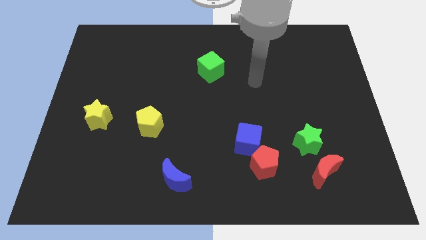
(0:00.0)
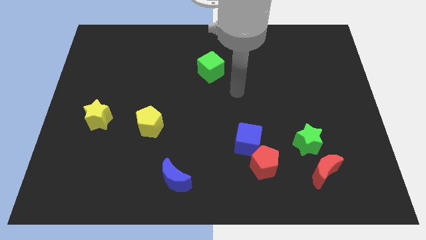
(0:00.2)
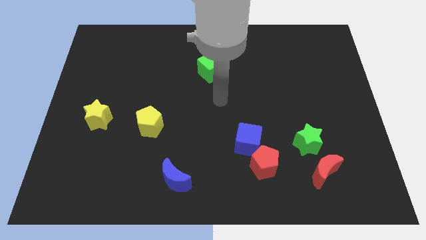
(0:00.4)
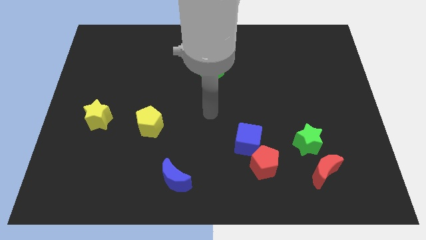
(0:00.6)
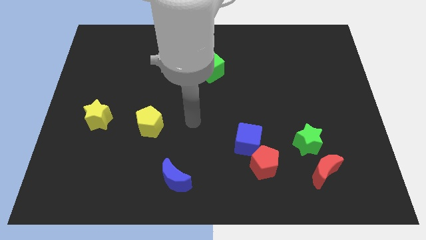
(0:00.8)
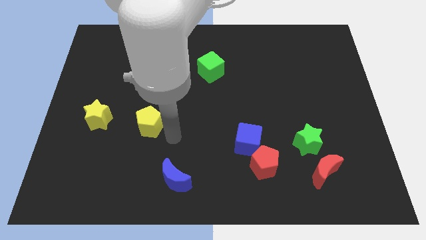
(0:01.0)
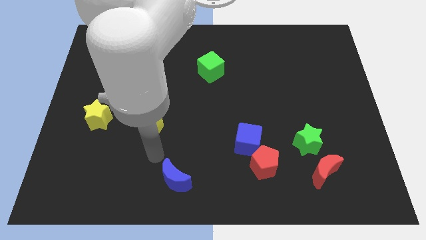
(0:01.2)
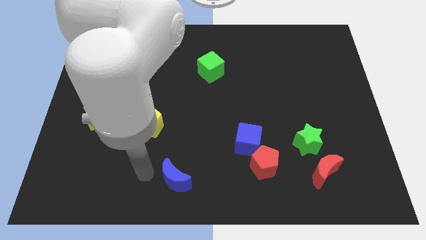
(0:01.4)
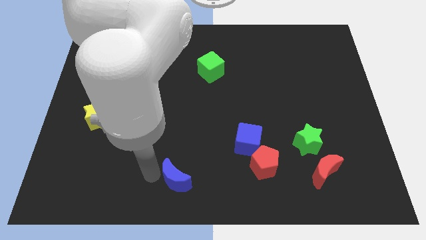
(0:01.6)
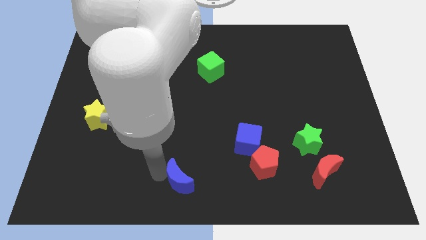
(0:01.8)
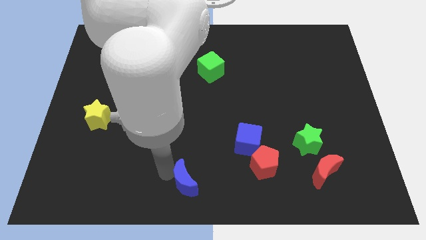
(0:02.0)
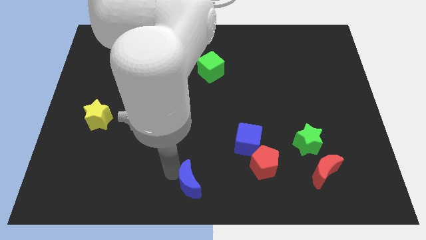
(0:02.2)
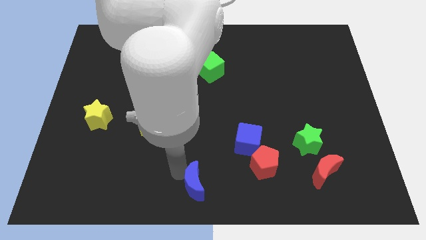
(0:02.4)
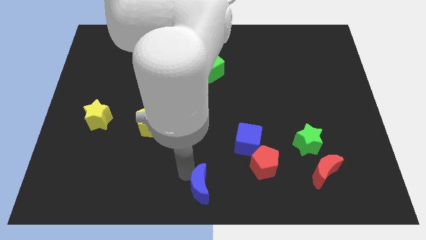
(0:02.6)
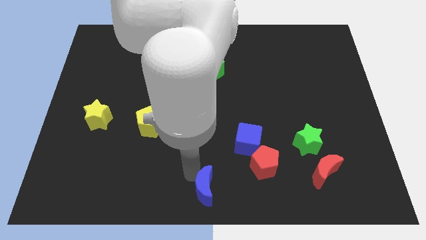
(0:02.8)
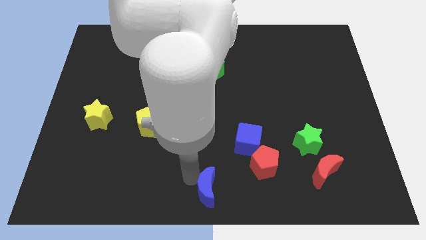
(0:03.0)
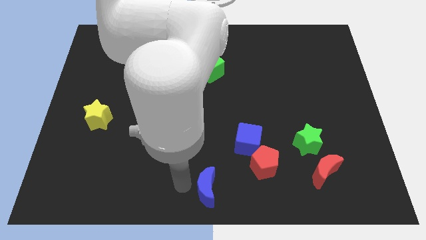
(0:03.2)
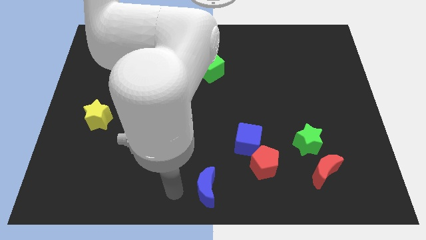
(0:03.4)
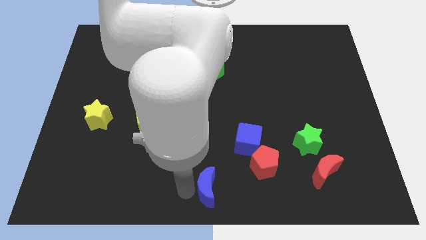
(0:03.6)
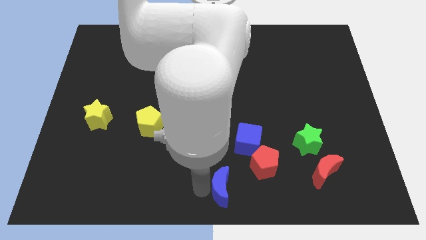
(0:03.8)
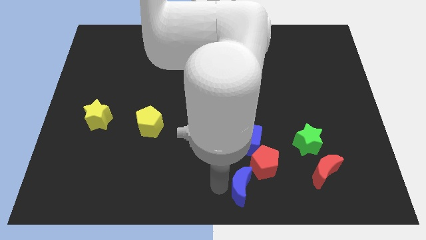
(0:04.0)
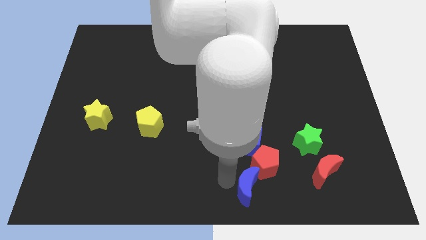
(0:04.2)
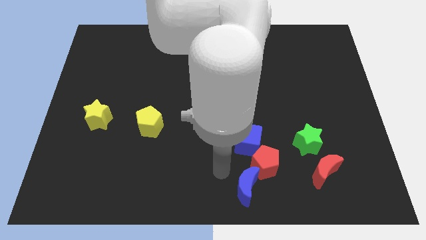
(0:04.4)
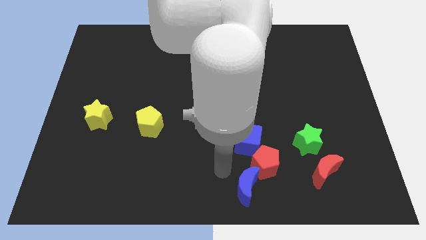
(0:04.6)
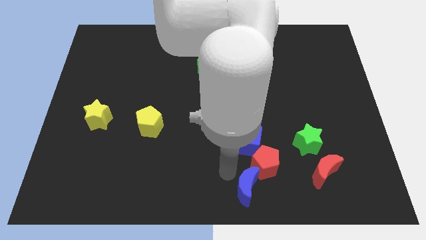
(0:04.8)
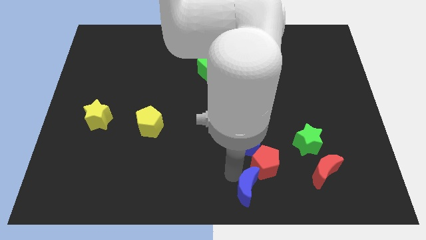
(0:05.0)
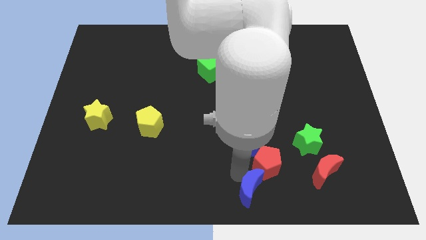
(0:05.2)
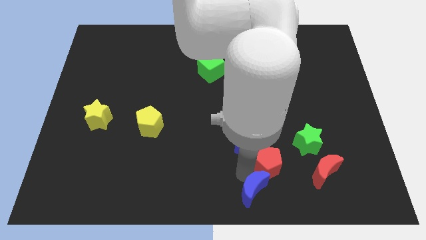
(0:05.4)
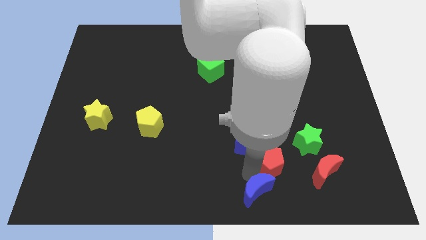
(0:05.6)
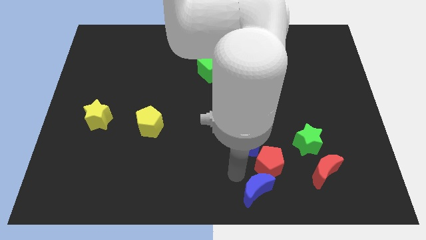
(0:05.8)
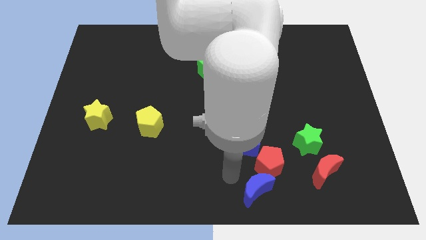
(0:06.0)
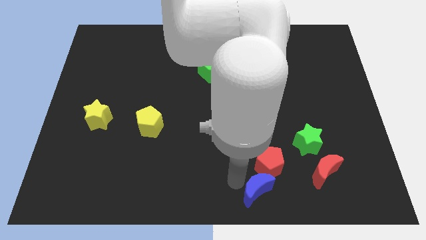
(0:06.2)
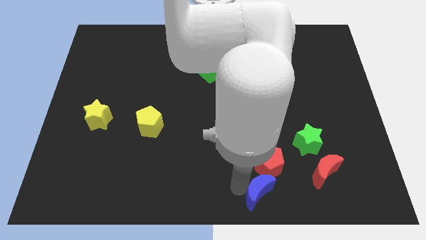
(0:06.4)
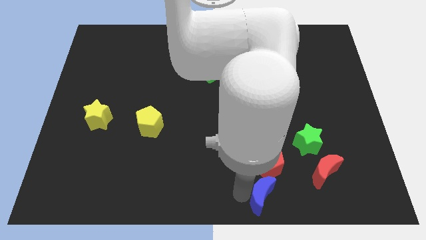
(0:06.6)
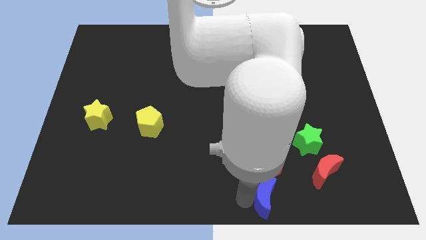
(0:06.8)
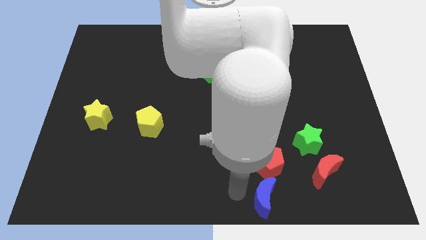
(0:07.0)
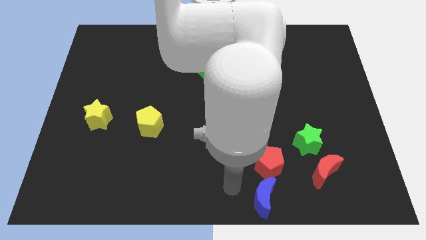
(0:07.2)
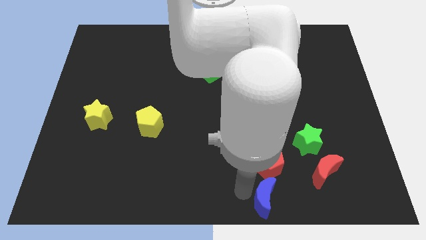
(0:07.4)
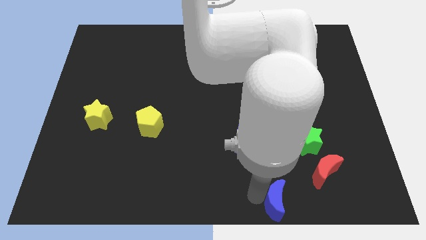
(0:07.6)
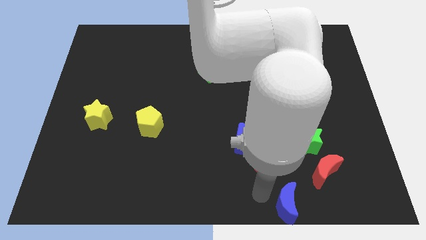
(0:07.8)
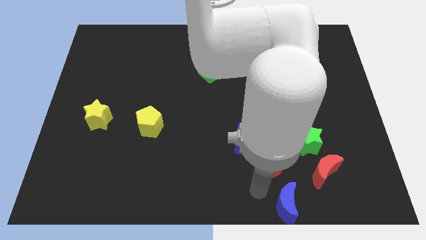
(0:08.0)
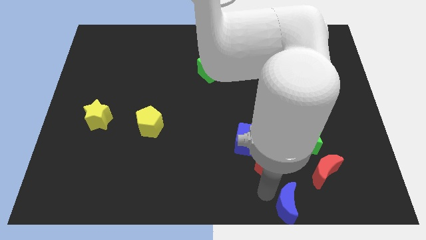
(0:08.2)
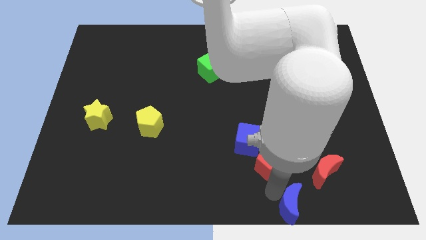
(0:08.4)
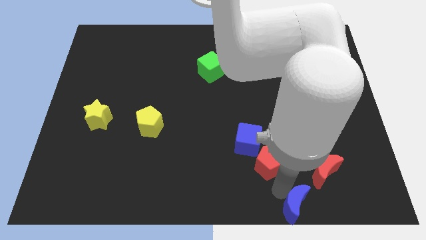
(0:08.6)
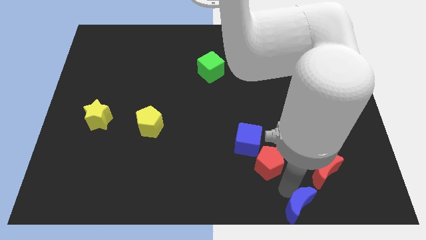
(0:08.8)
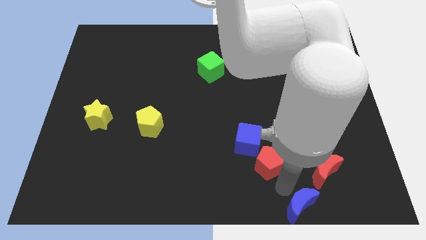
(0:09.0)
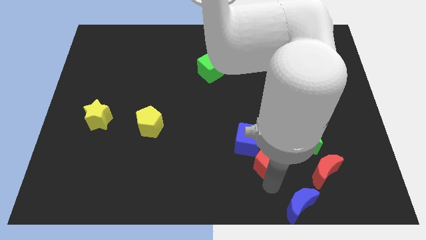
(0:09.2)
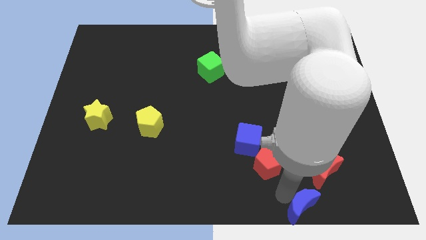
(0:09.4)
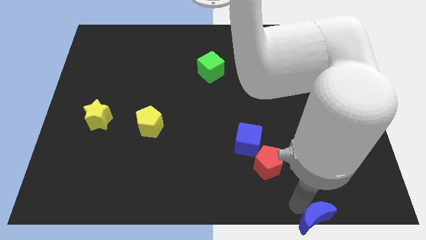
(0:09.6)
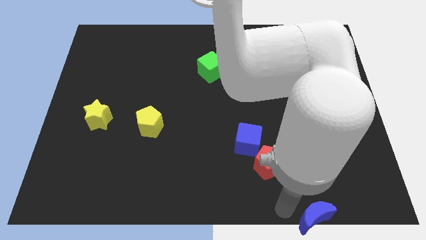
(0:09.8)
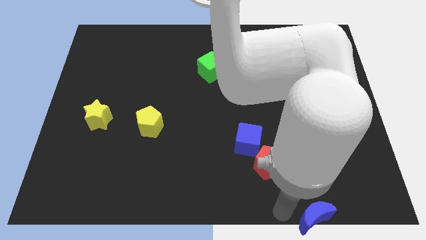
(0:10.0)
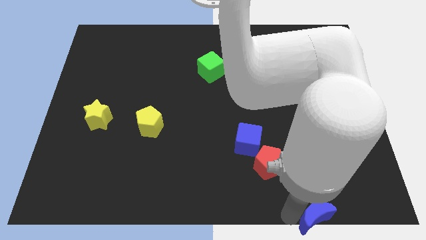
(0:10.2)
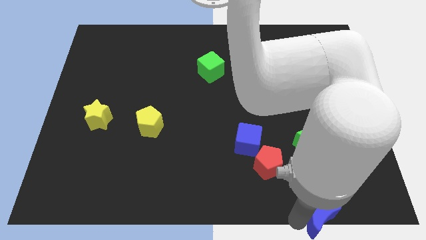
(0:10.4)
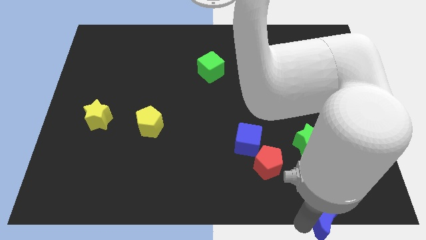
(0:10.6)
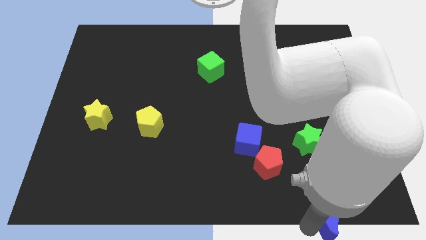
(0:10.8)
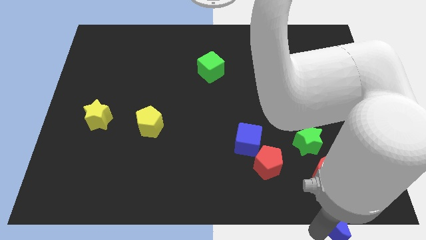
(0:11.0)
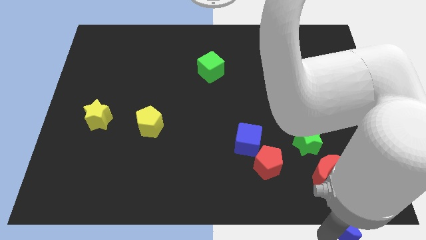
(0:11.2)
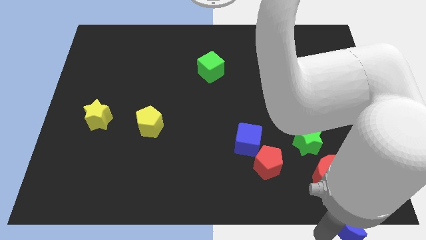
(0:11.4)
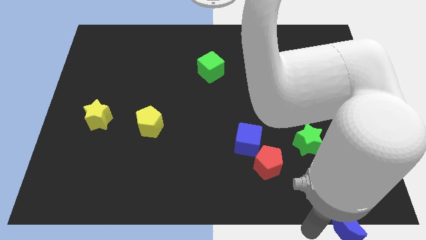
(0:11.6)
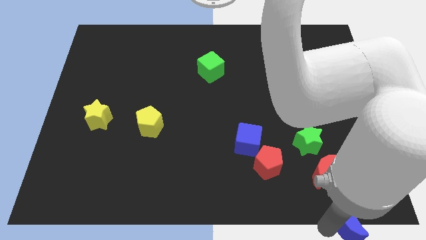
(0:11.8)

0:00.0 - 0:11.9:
put the blue moon to the lower right corner

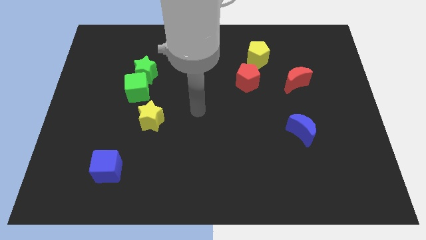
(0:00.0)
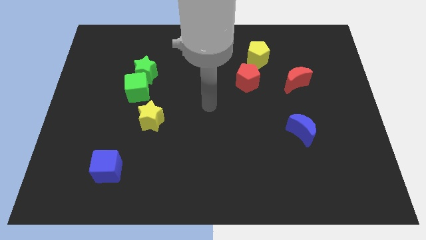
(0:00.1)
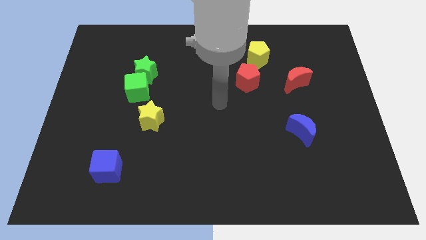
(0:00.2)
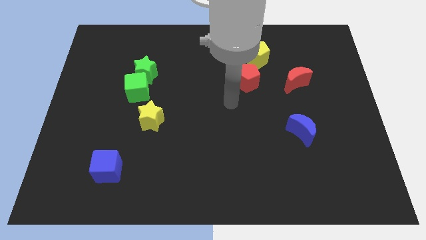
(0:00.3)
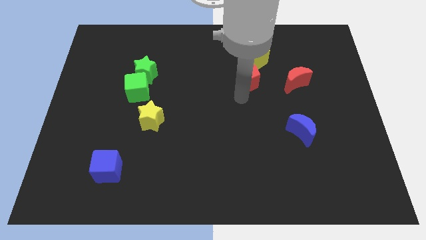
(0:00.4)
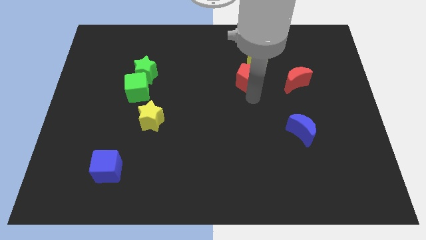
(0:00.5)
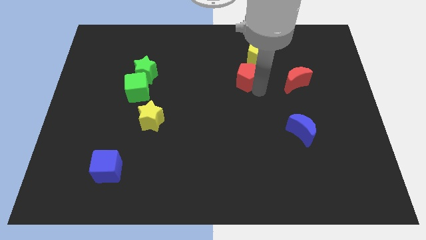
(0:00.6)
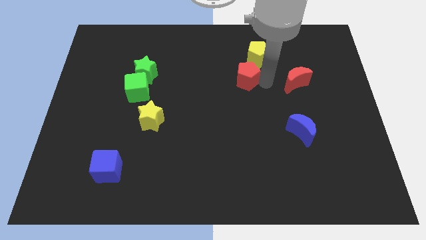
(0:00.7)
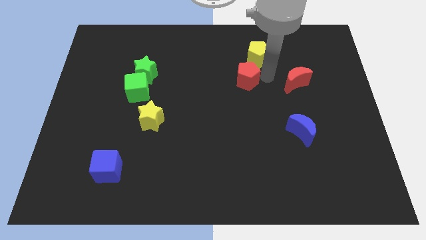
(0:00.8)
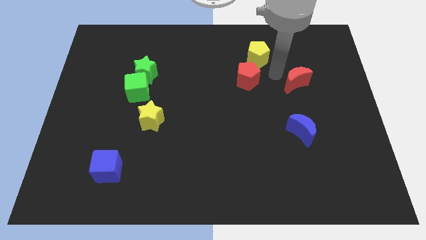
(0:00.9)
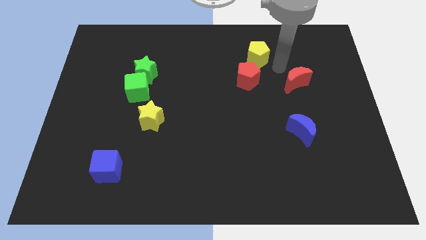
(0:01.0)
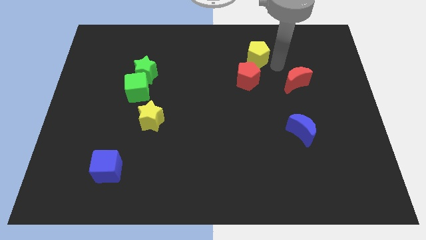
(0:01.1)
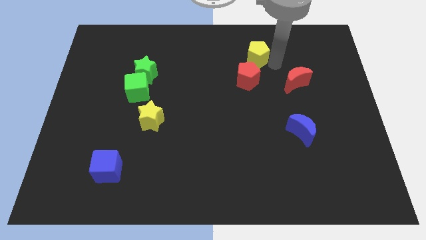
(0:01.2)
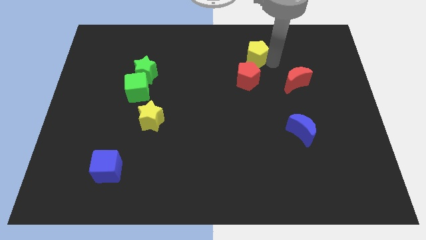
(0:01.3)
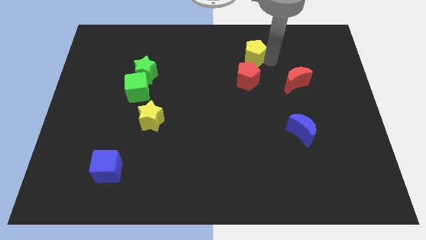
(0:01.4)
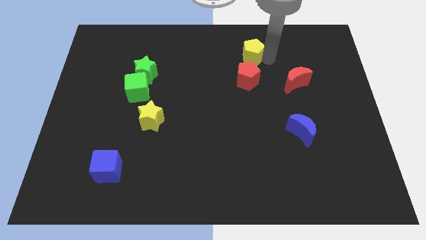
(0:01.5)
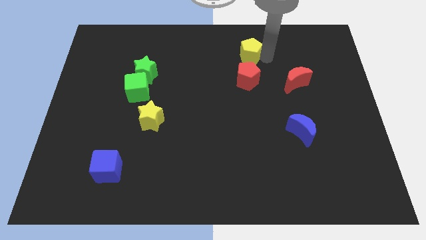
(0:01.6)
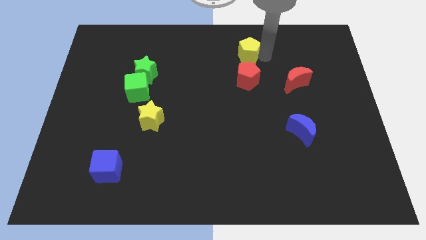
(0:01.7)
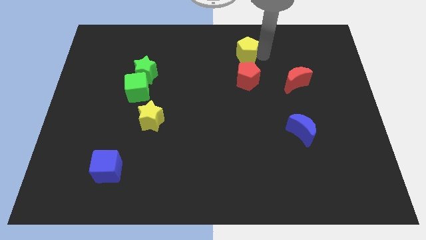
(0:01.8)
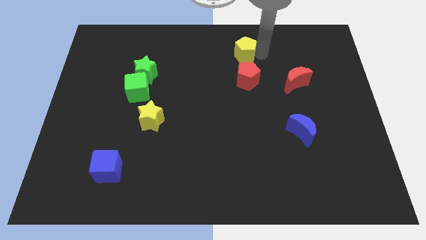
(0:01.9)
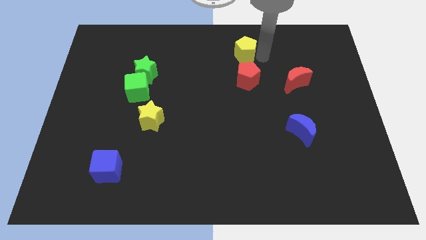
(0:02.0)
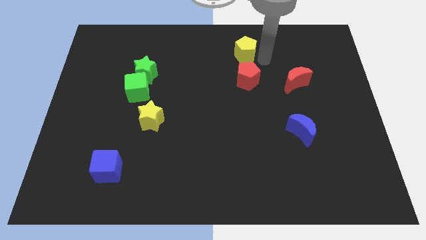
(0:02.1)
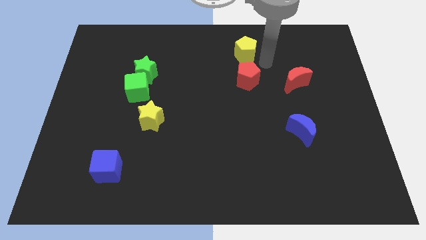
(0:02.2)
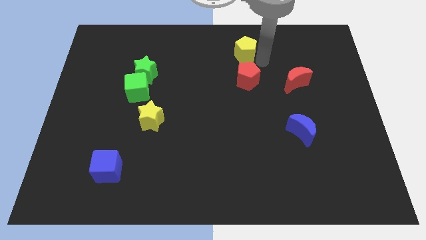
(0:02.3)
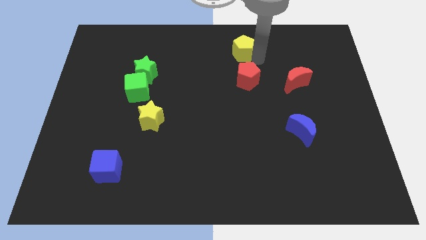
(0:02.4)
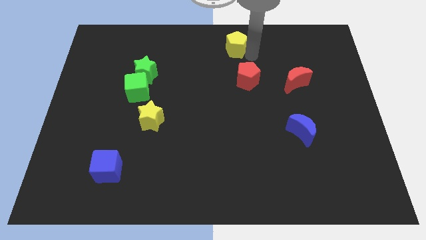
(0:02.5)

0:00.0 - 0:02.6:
slide the yellow pentagon to the towards your base
